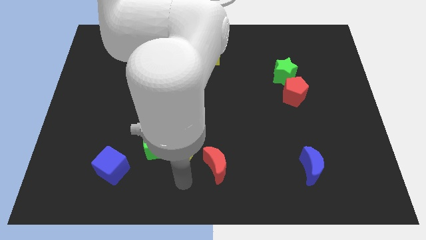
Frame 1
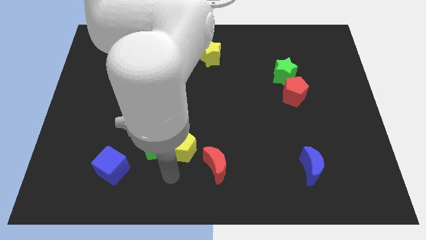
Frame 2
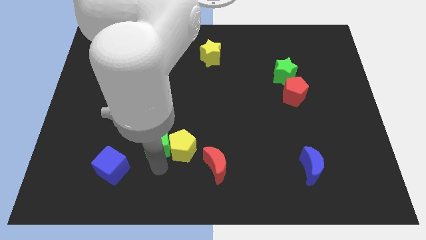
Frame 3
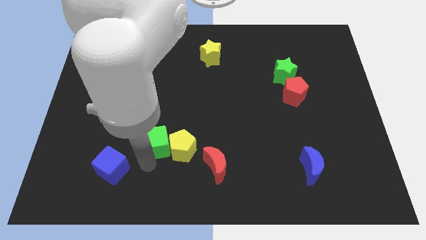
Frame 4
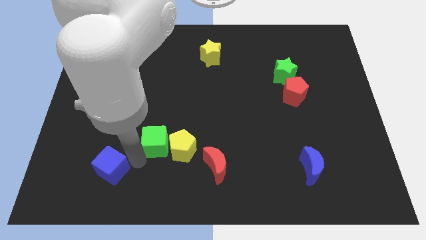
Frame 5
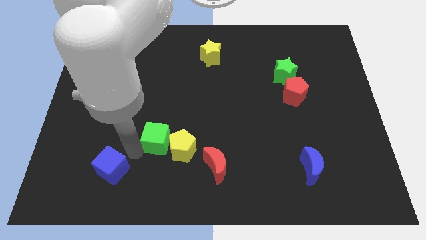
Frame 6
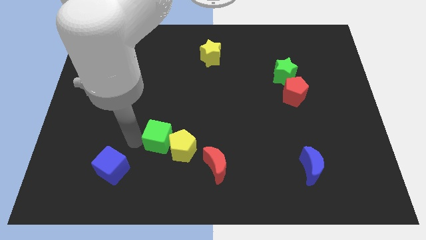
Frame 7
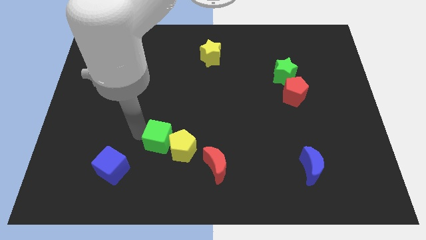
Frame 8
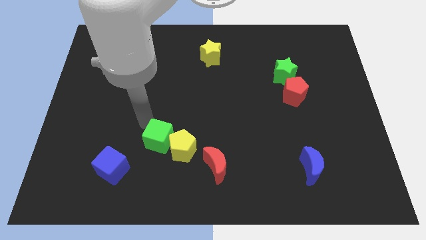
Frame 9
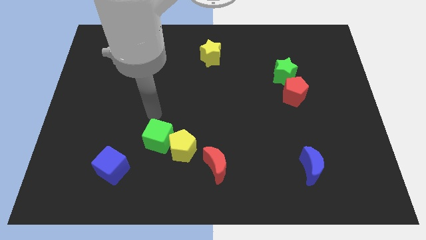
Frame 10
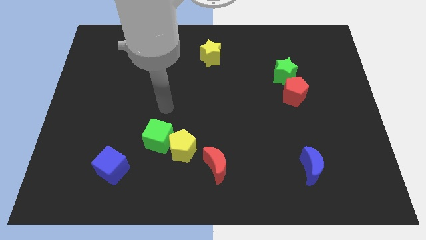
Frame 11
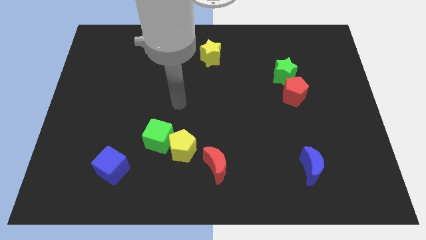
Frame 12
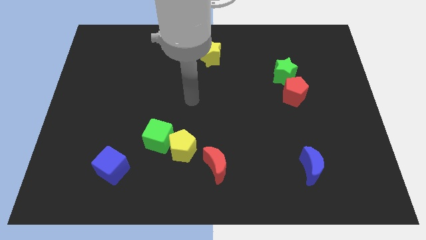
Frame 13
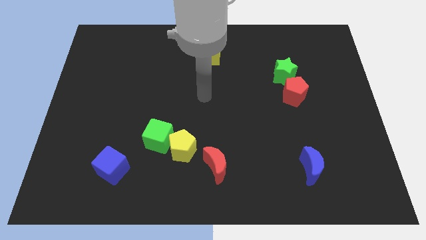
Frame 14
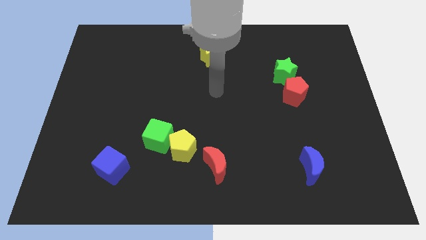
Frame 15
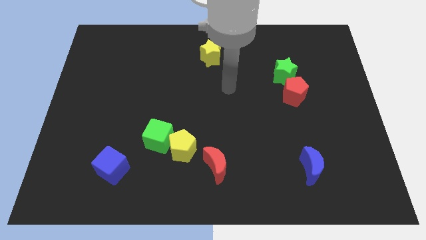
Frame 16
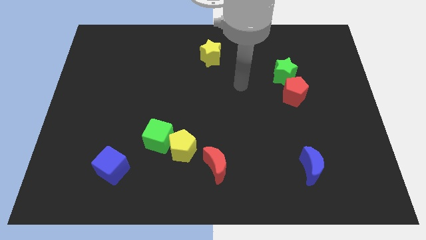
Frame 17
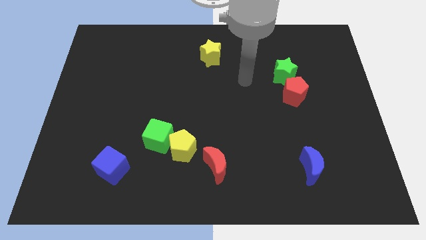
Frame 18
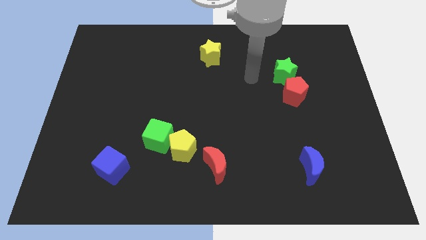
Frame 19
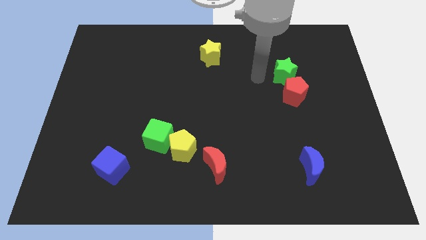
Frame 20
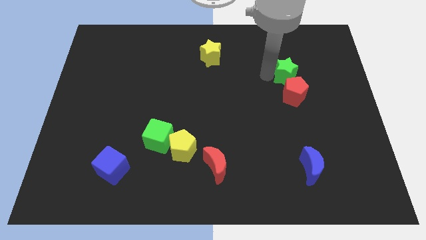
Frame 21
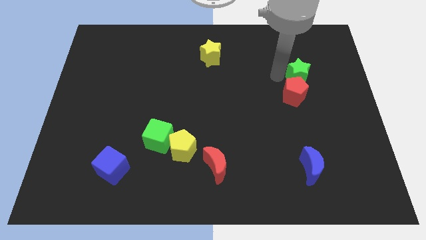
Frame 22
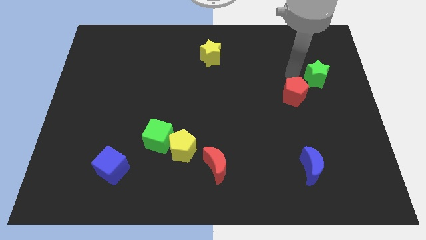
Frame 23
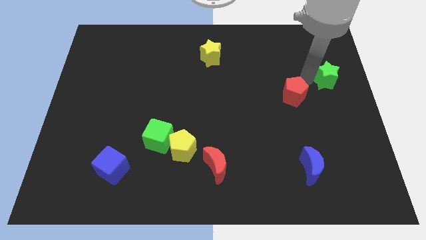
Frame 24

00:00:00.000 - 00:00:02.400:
pull the red pentagon apart from the green star

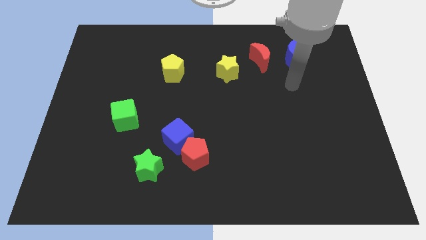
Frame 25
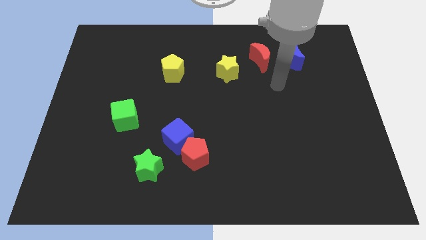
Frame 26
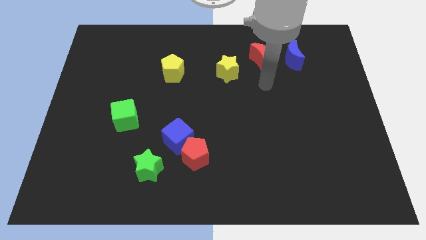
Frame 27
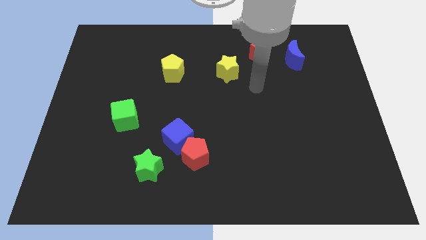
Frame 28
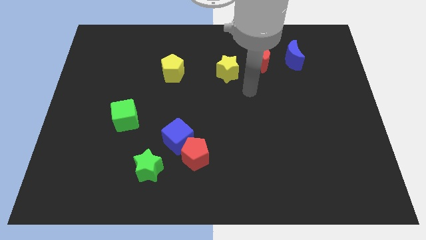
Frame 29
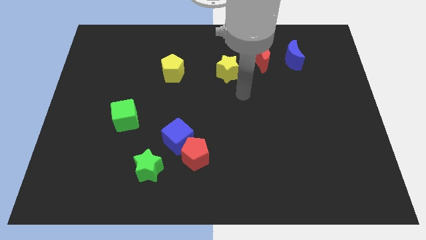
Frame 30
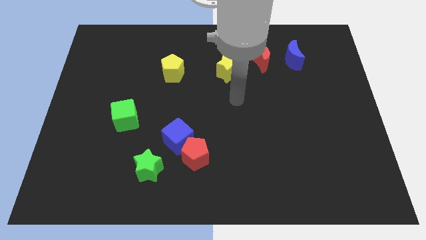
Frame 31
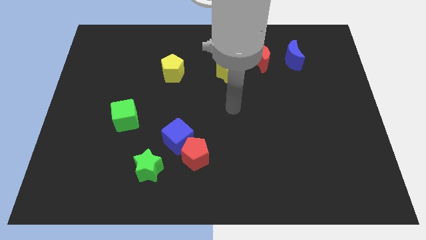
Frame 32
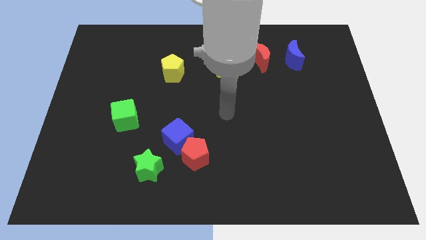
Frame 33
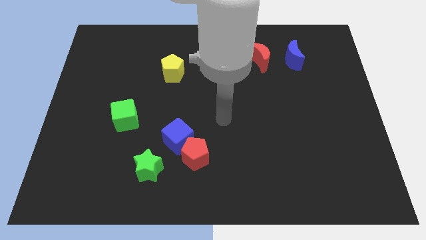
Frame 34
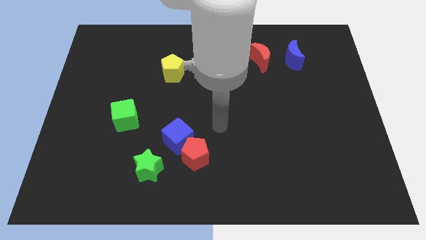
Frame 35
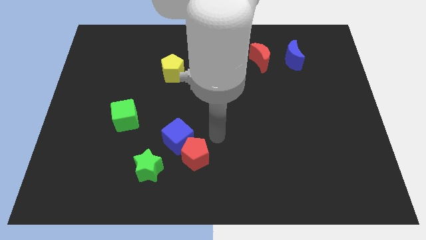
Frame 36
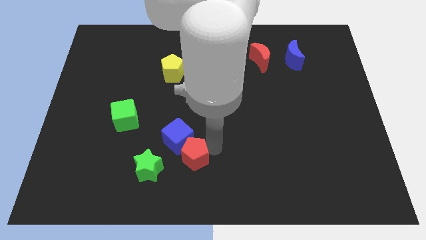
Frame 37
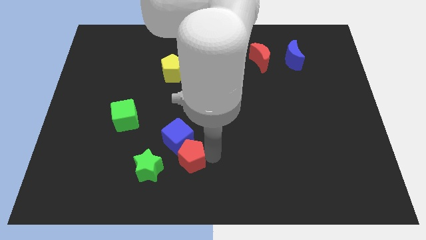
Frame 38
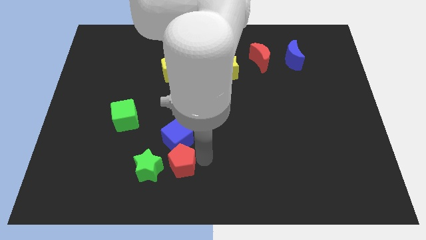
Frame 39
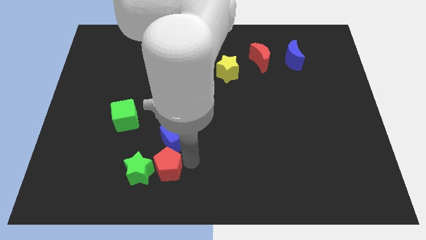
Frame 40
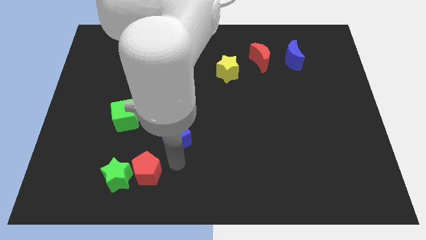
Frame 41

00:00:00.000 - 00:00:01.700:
separate the blue cube from the red pentagon and green star

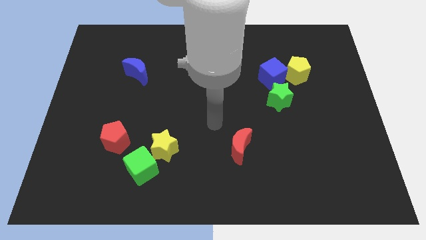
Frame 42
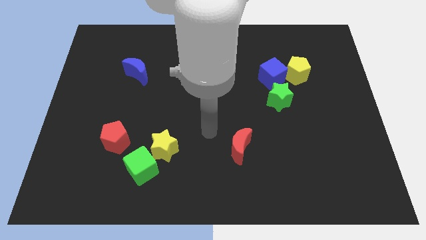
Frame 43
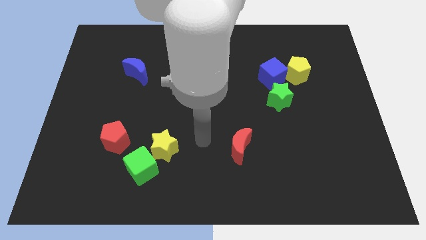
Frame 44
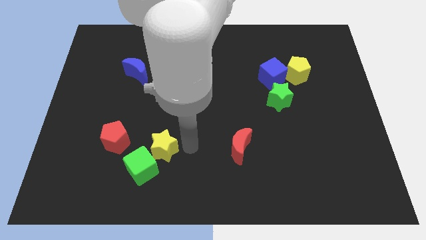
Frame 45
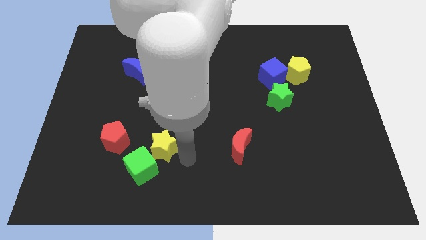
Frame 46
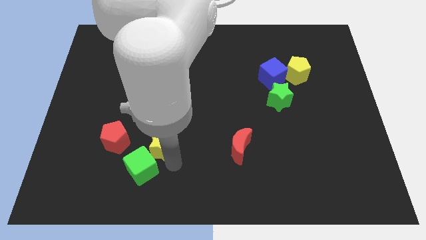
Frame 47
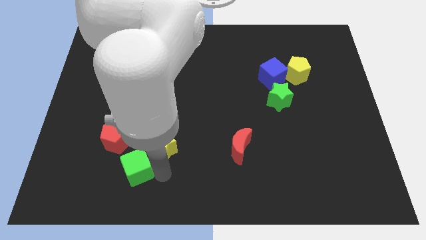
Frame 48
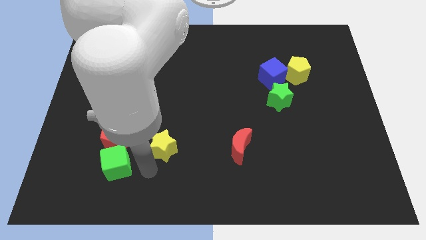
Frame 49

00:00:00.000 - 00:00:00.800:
pull the yellow star apart from the green cube

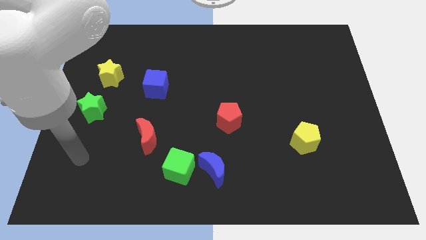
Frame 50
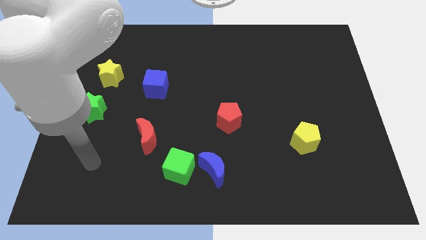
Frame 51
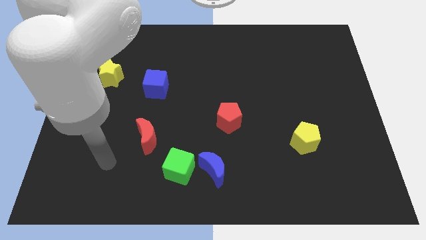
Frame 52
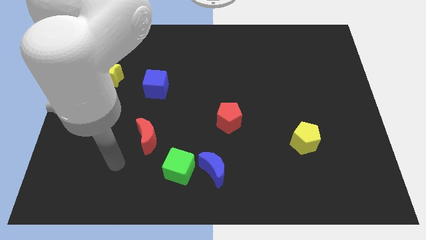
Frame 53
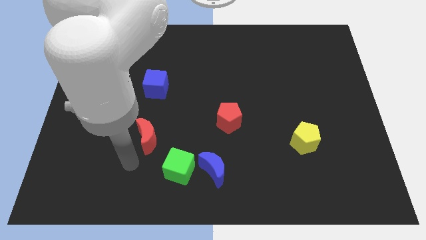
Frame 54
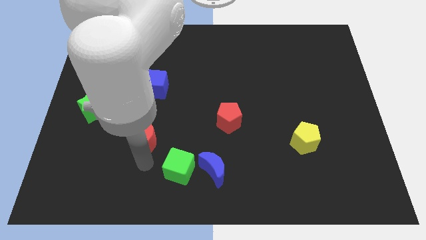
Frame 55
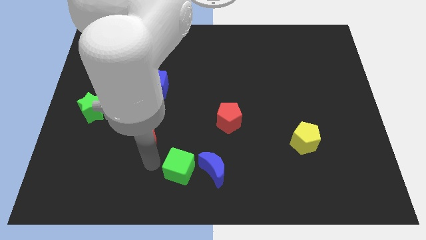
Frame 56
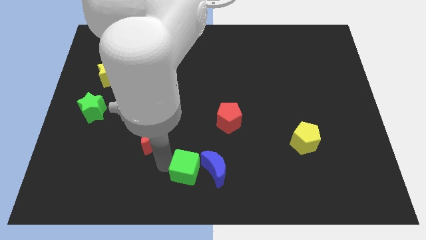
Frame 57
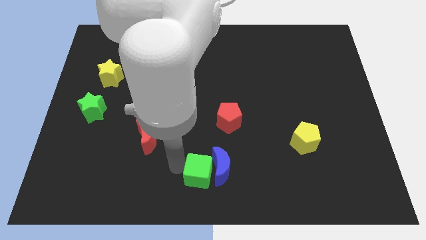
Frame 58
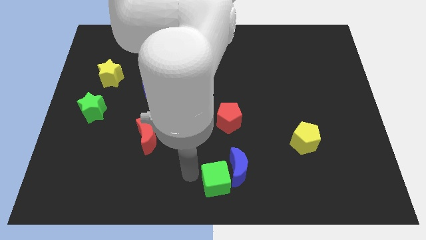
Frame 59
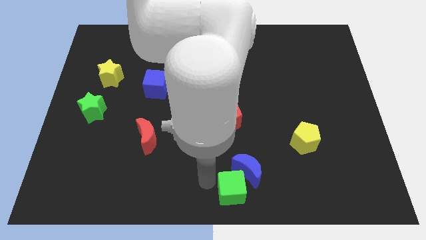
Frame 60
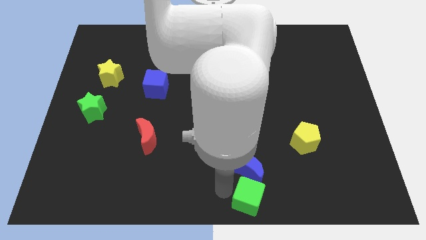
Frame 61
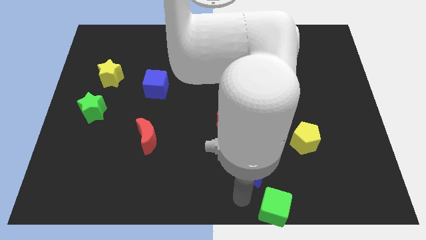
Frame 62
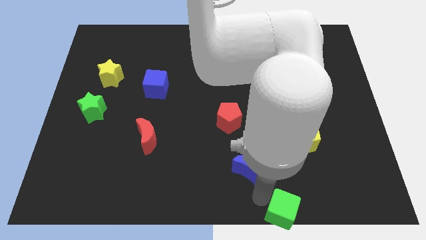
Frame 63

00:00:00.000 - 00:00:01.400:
pull the blue moon apart from the green cube

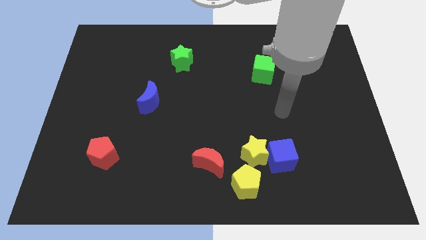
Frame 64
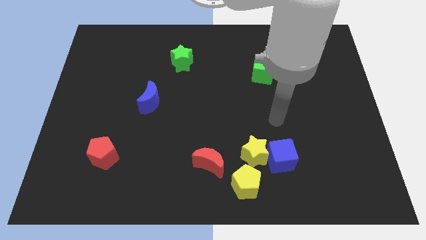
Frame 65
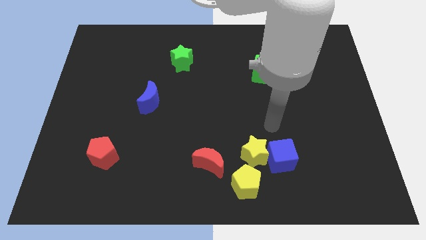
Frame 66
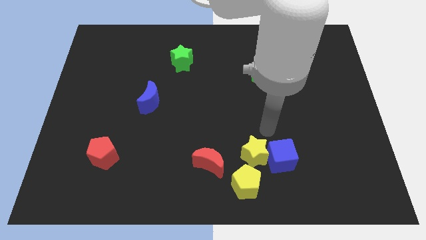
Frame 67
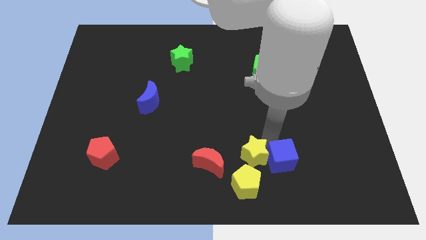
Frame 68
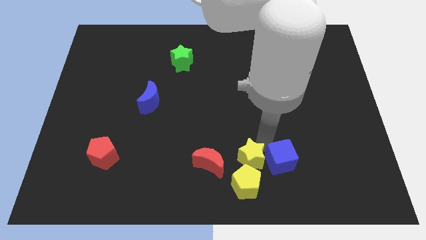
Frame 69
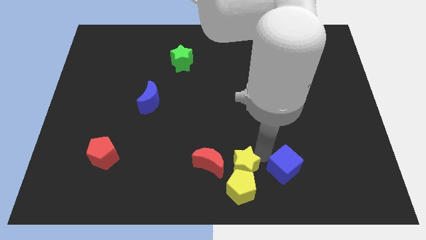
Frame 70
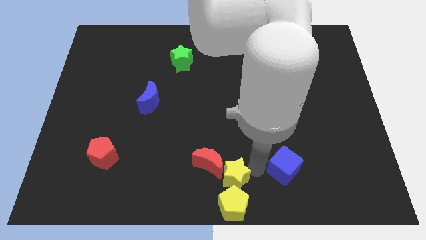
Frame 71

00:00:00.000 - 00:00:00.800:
separate the blue cube from the yellow star and yellow pentagon

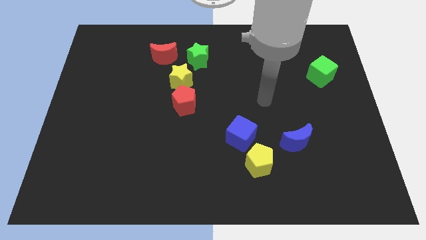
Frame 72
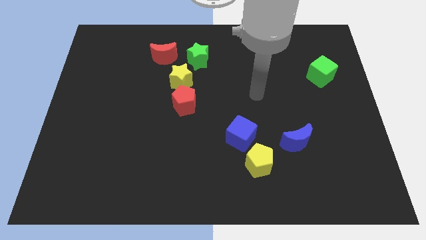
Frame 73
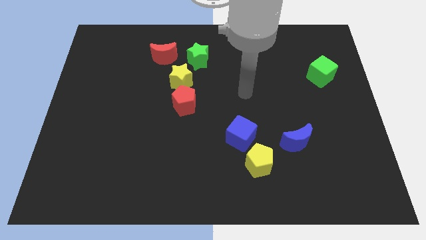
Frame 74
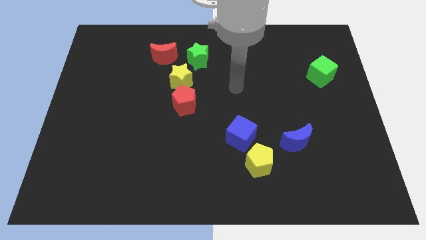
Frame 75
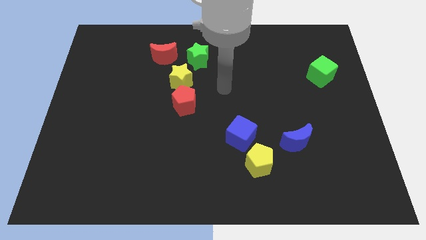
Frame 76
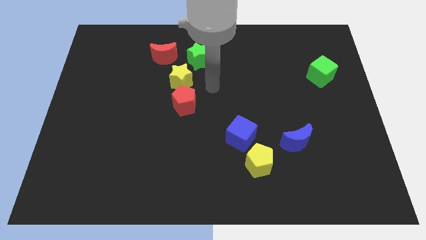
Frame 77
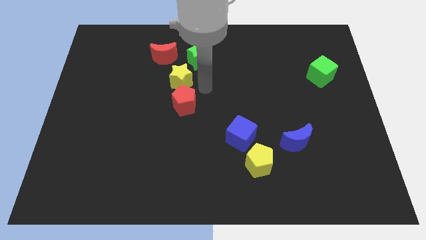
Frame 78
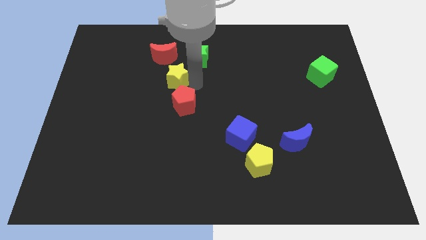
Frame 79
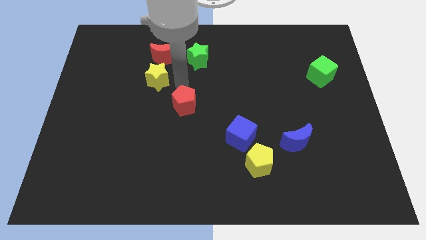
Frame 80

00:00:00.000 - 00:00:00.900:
pull the red pentagon apart from the yellow star

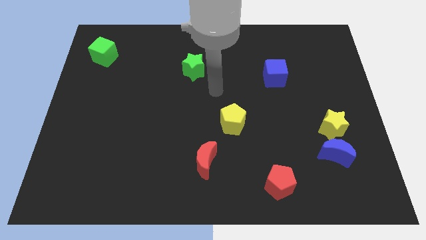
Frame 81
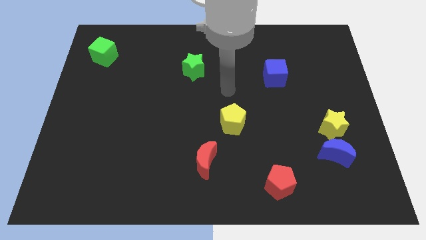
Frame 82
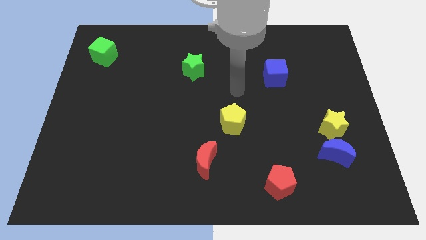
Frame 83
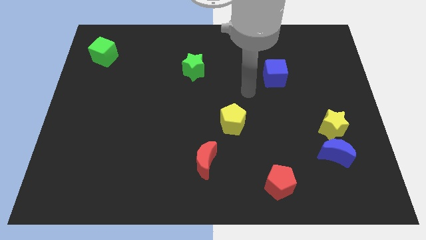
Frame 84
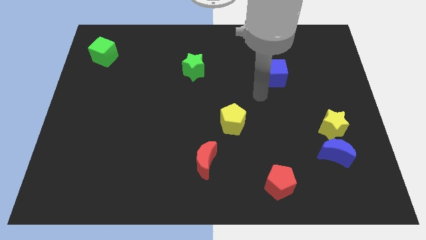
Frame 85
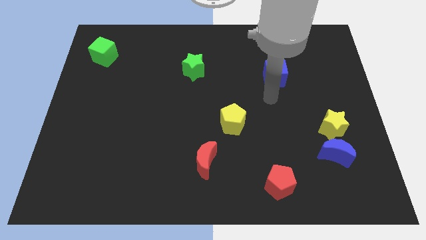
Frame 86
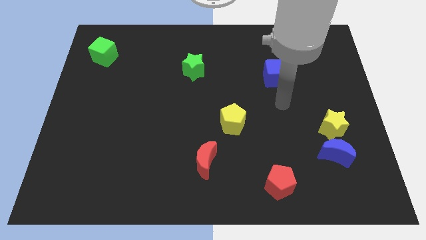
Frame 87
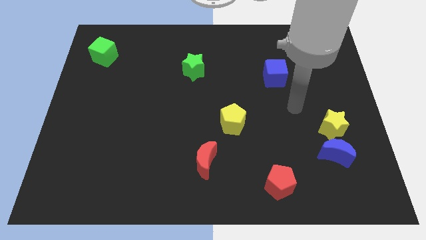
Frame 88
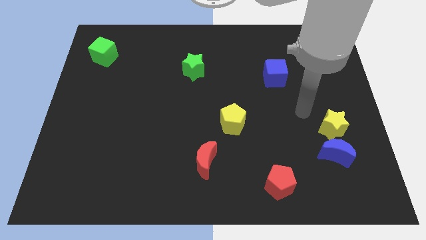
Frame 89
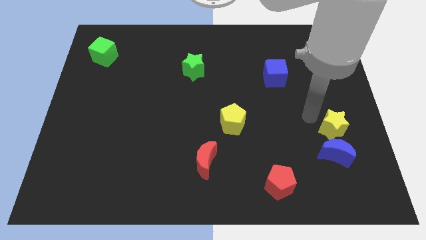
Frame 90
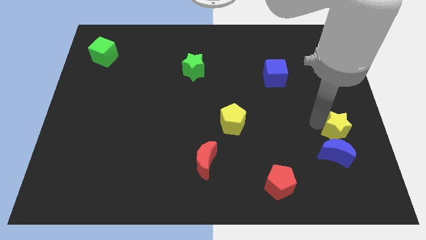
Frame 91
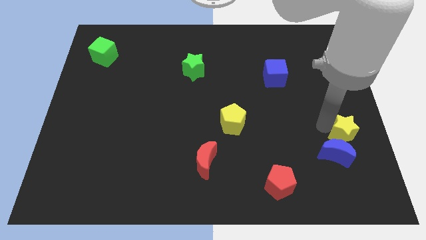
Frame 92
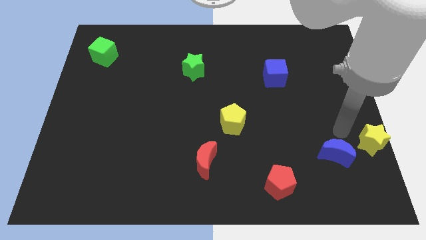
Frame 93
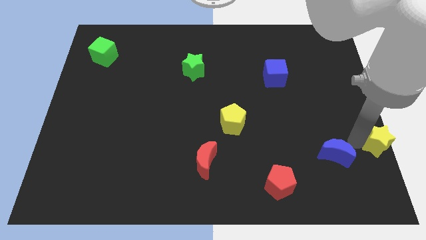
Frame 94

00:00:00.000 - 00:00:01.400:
separate the blue moon from the yellow star
